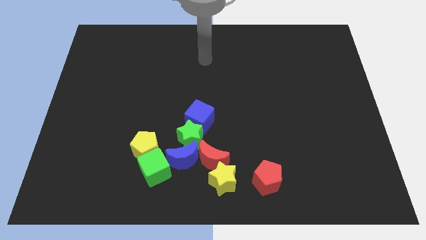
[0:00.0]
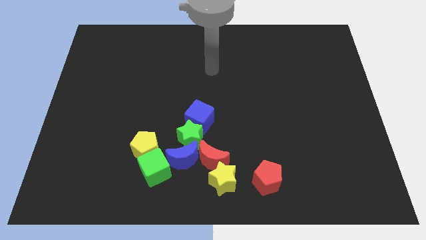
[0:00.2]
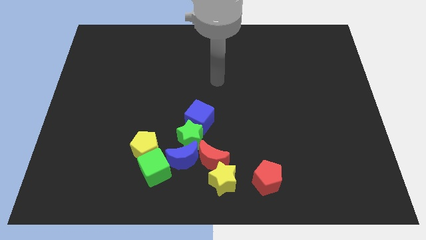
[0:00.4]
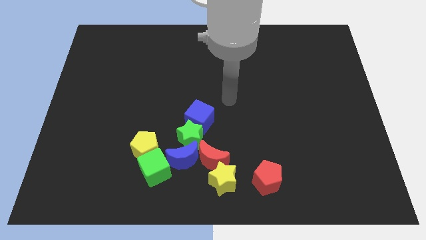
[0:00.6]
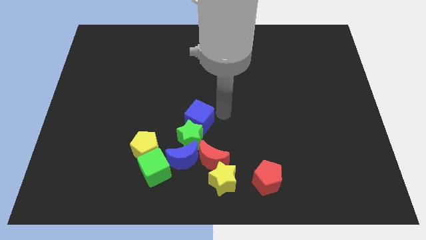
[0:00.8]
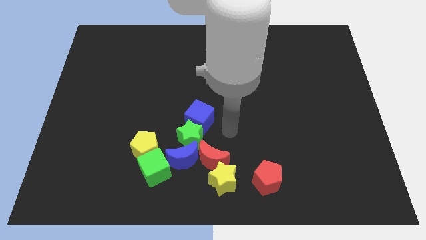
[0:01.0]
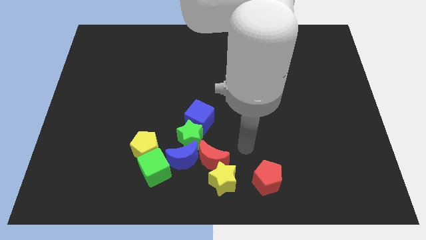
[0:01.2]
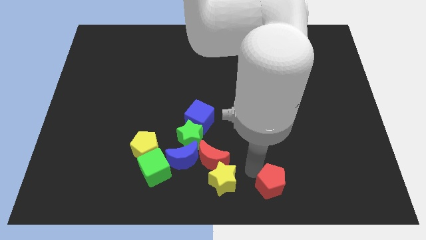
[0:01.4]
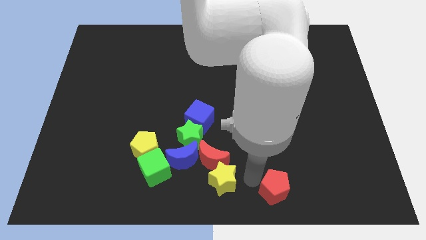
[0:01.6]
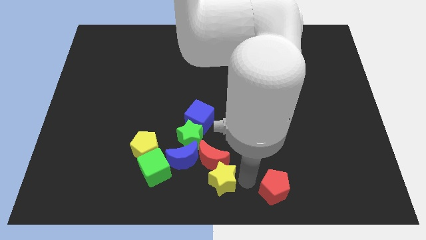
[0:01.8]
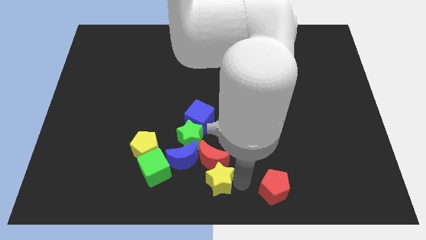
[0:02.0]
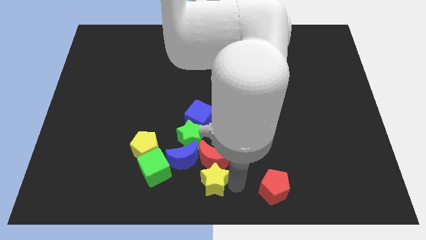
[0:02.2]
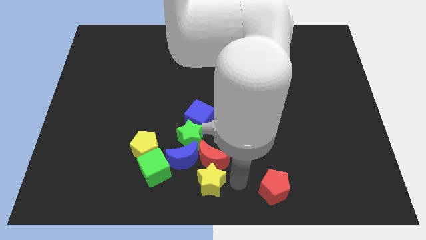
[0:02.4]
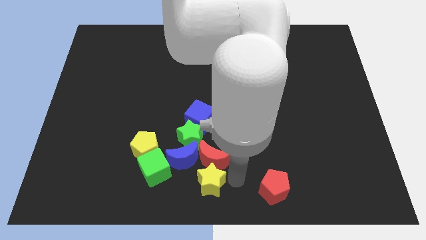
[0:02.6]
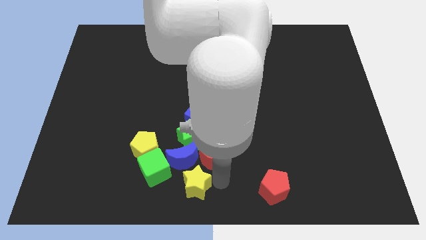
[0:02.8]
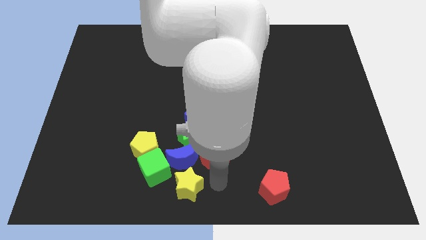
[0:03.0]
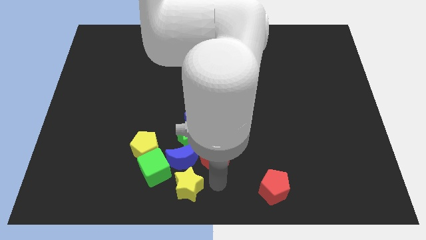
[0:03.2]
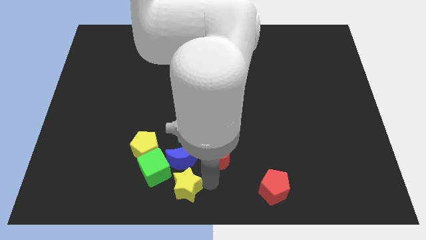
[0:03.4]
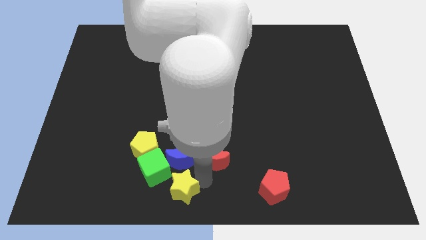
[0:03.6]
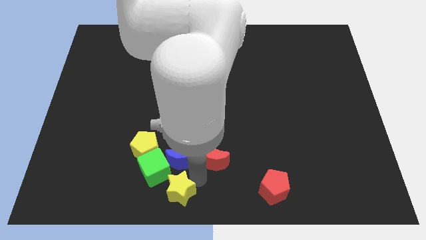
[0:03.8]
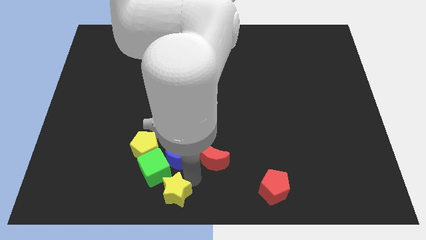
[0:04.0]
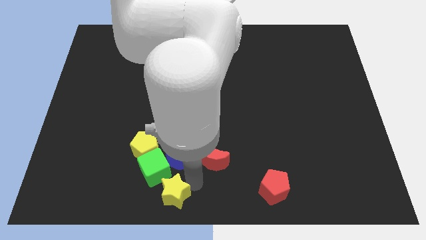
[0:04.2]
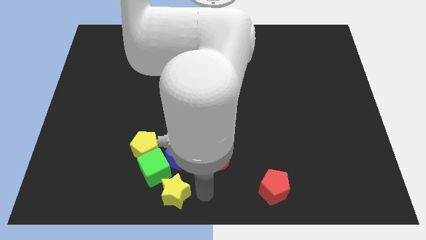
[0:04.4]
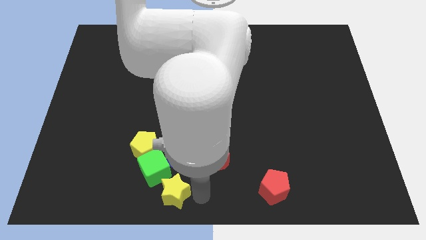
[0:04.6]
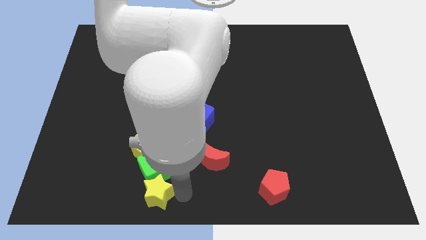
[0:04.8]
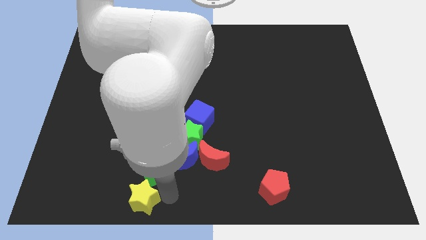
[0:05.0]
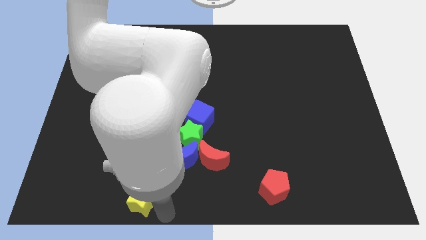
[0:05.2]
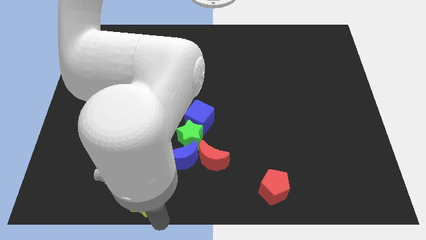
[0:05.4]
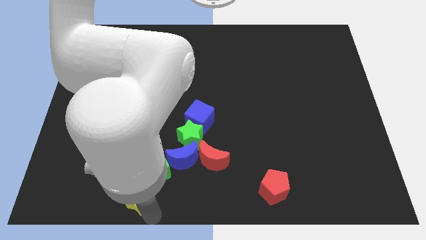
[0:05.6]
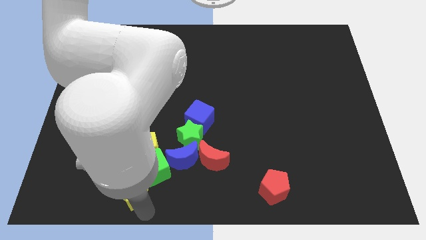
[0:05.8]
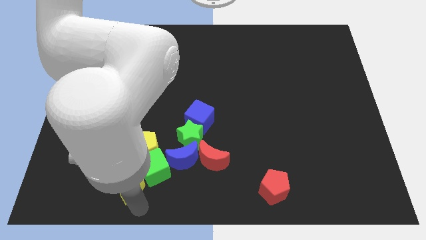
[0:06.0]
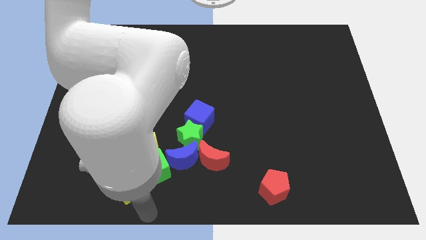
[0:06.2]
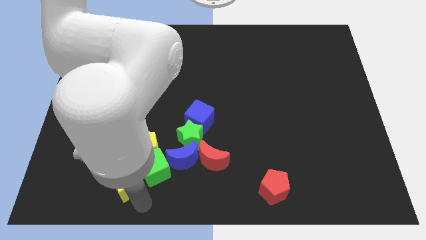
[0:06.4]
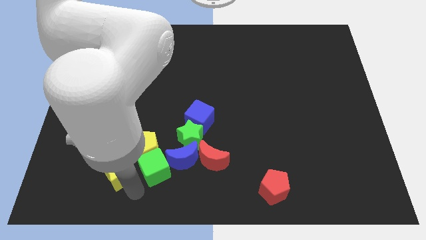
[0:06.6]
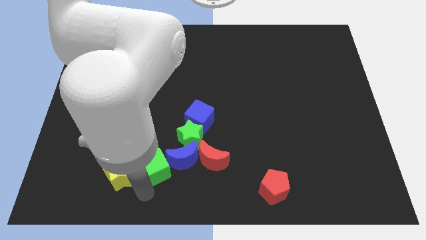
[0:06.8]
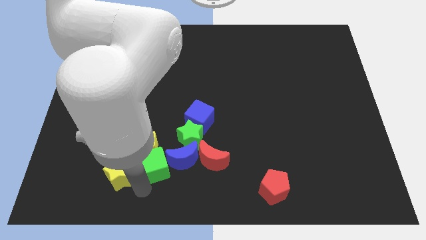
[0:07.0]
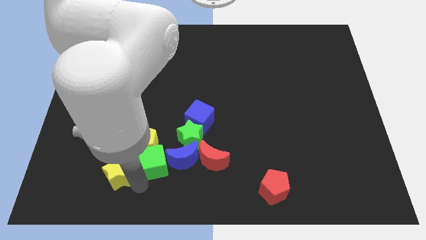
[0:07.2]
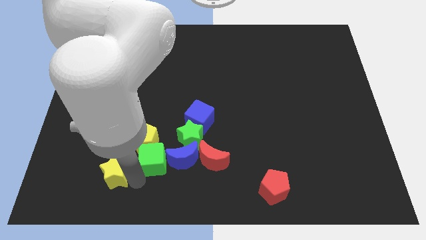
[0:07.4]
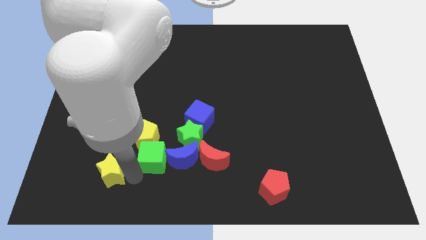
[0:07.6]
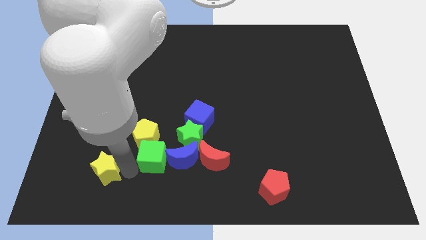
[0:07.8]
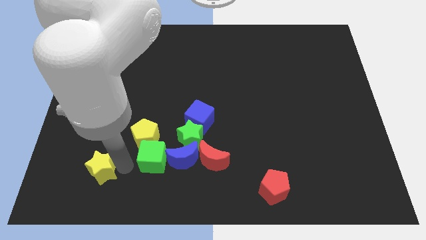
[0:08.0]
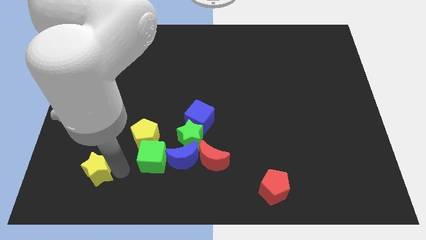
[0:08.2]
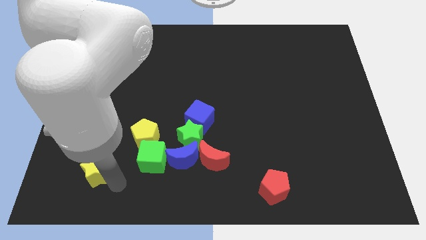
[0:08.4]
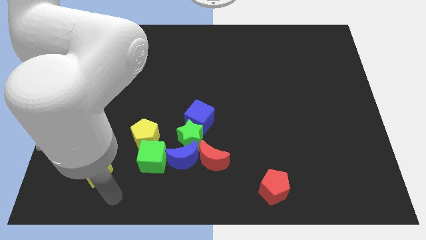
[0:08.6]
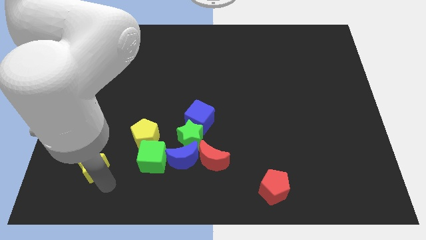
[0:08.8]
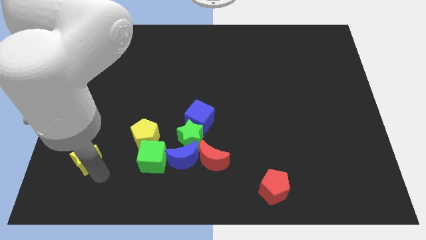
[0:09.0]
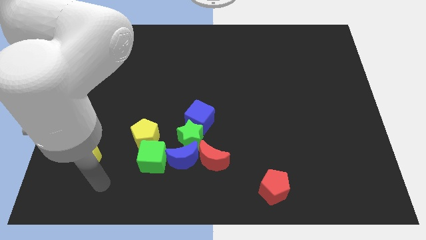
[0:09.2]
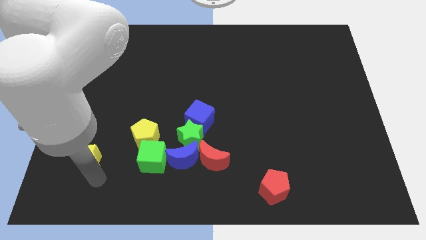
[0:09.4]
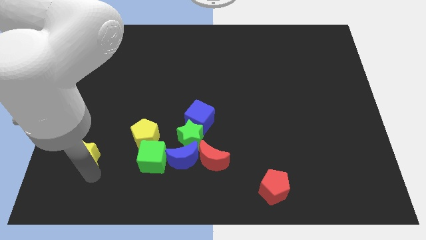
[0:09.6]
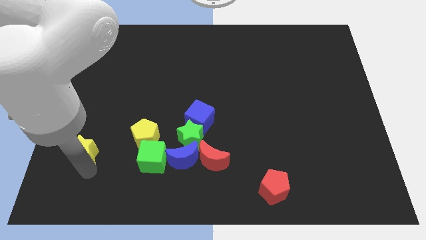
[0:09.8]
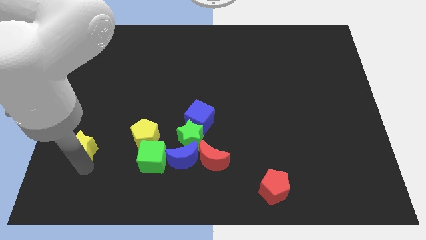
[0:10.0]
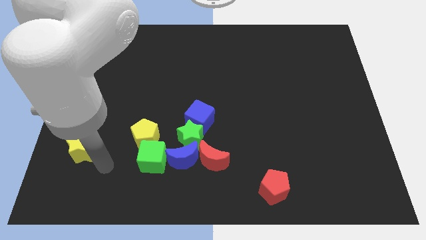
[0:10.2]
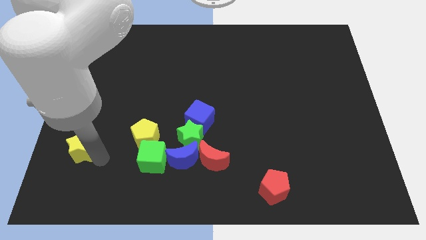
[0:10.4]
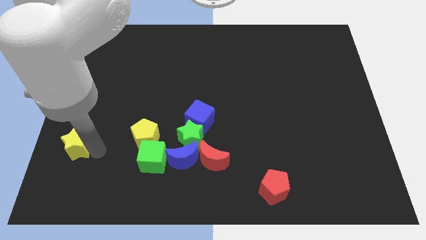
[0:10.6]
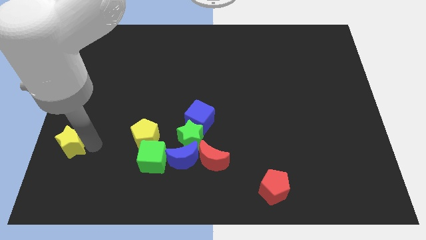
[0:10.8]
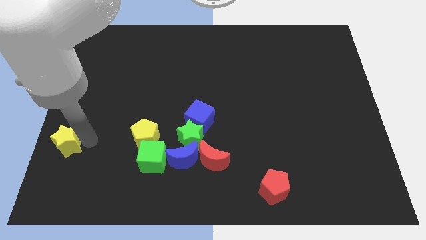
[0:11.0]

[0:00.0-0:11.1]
put the yellow star to the left side
